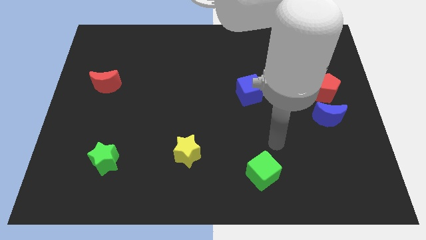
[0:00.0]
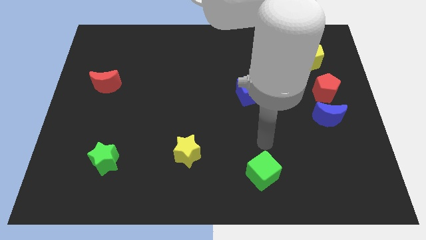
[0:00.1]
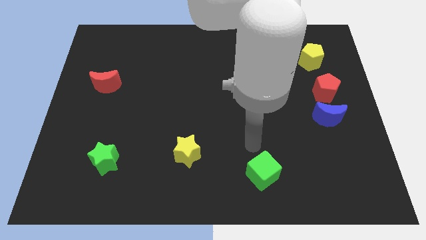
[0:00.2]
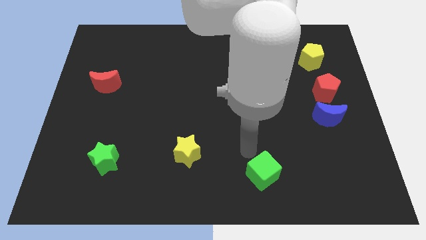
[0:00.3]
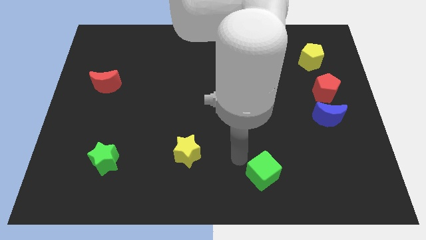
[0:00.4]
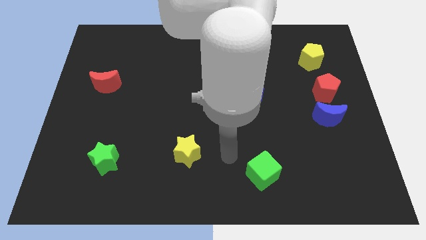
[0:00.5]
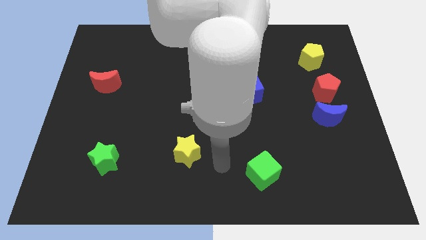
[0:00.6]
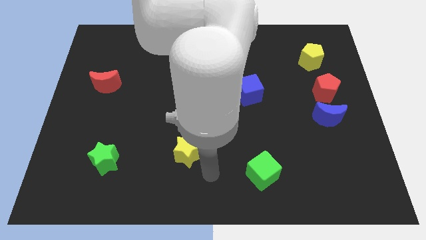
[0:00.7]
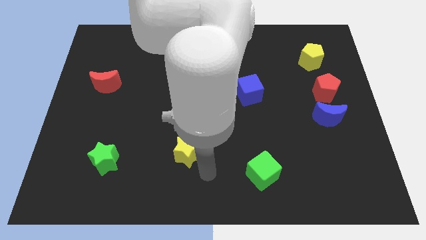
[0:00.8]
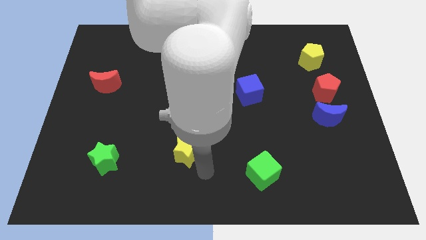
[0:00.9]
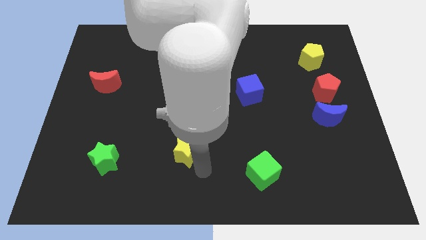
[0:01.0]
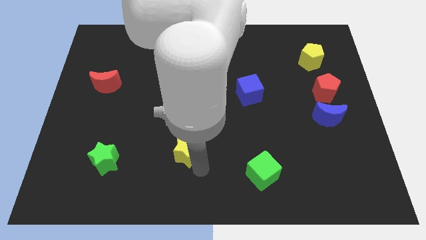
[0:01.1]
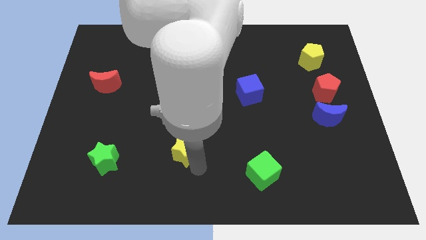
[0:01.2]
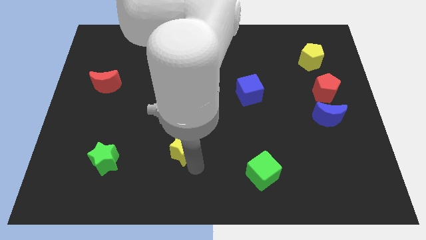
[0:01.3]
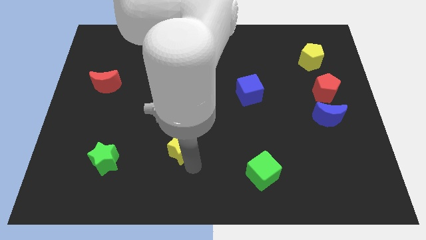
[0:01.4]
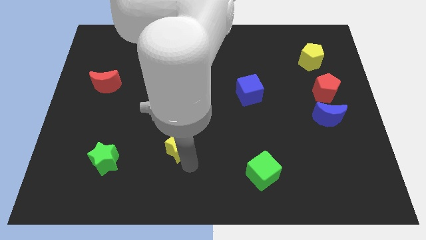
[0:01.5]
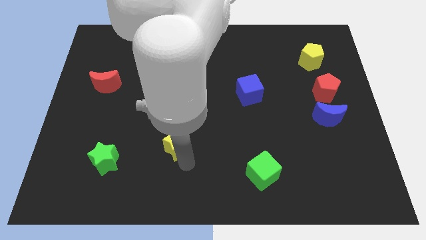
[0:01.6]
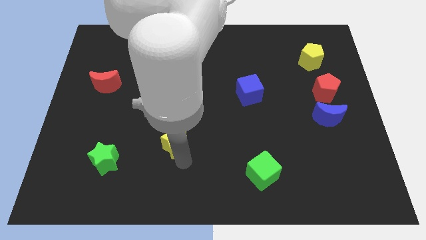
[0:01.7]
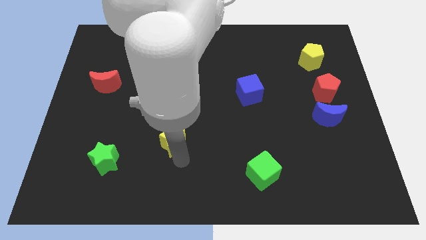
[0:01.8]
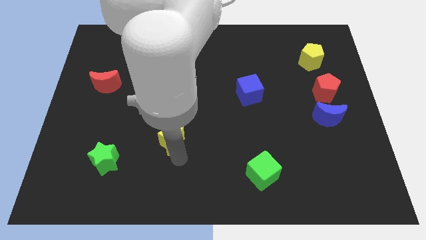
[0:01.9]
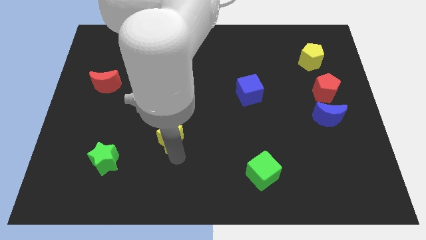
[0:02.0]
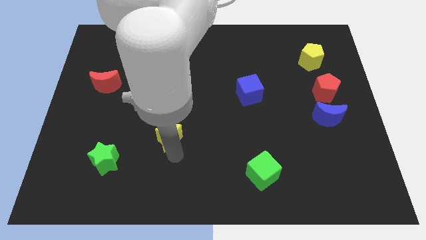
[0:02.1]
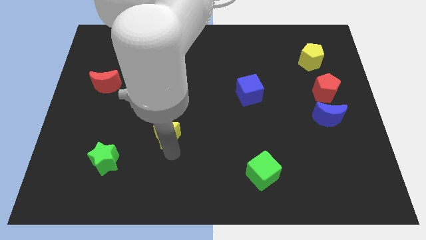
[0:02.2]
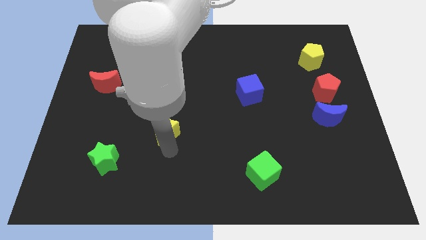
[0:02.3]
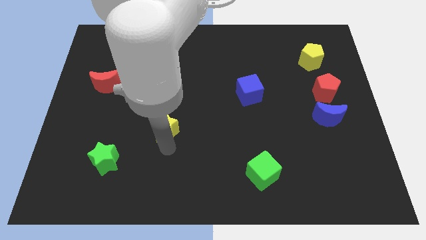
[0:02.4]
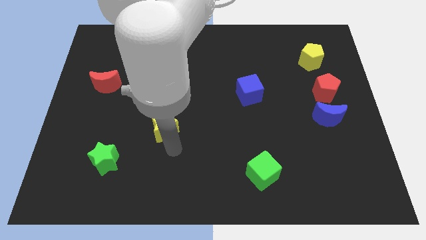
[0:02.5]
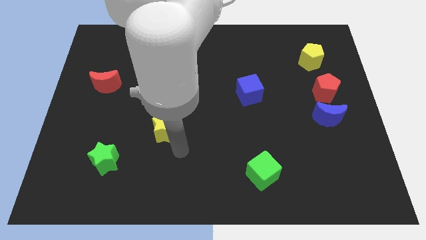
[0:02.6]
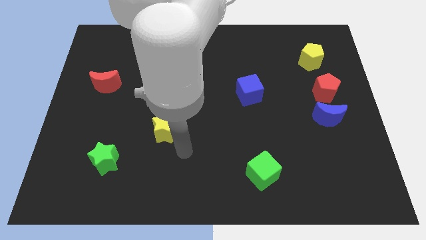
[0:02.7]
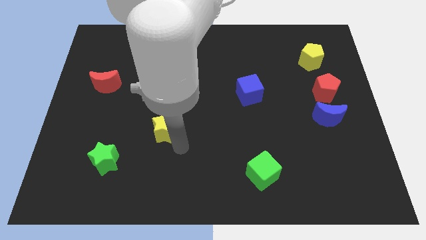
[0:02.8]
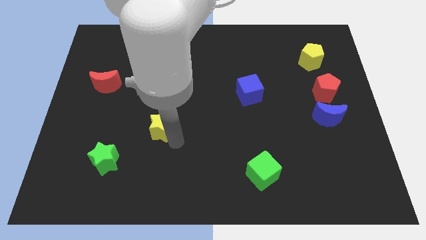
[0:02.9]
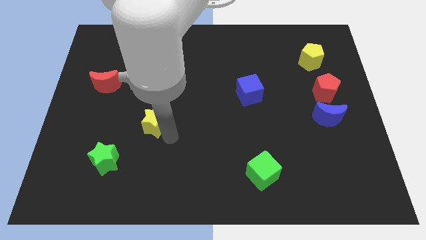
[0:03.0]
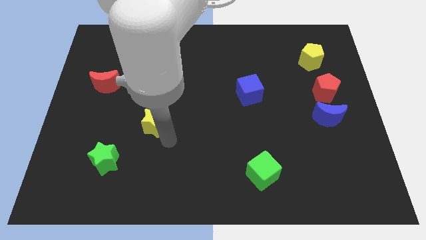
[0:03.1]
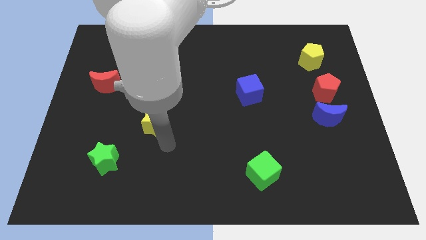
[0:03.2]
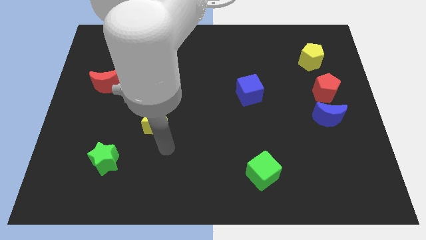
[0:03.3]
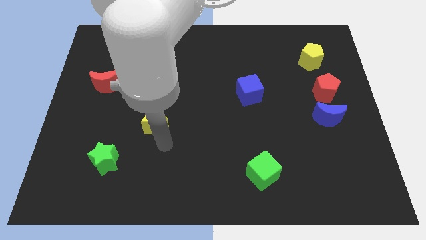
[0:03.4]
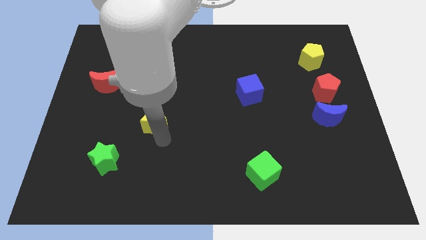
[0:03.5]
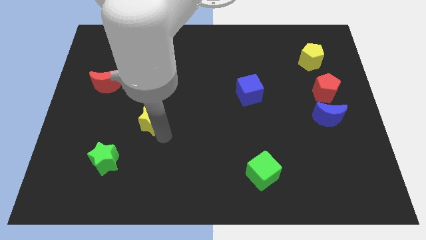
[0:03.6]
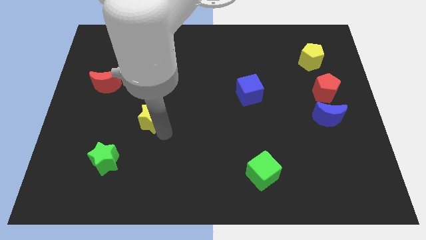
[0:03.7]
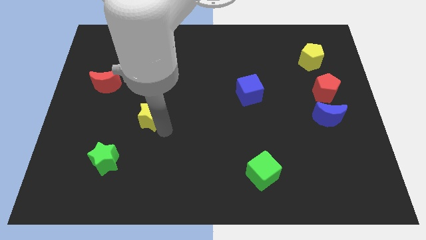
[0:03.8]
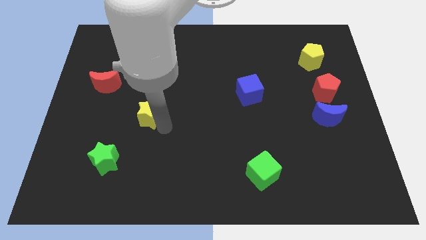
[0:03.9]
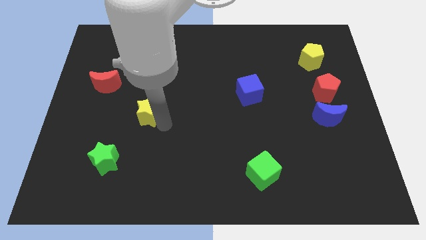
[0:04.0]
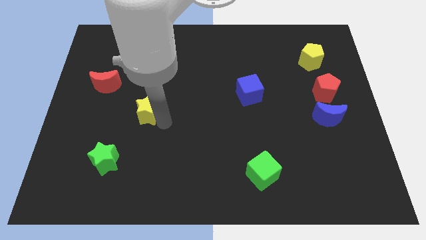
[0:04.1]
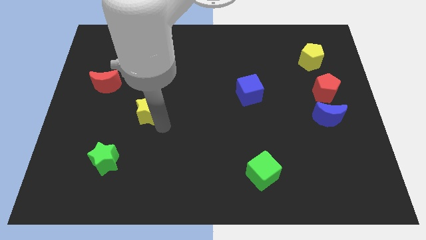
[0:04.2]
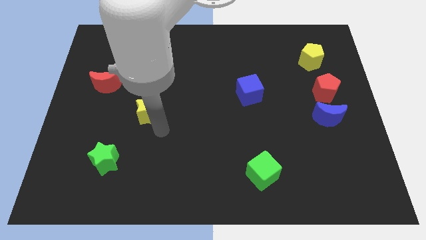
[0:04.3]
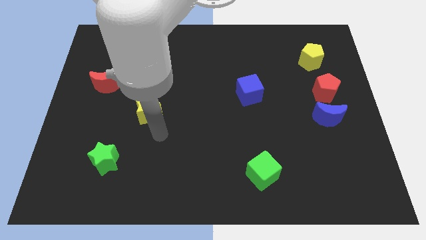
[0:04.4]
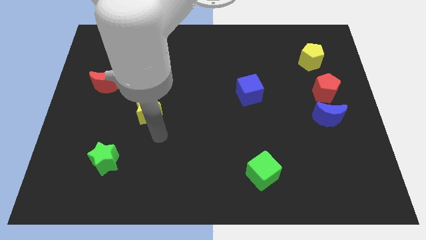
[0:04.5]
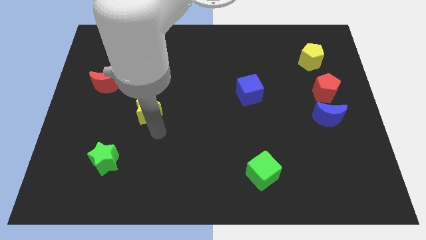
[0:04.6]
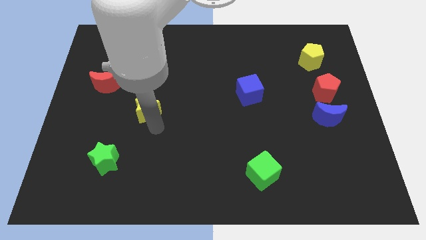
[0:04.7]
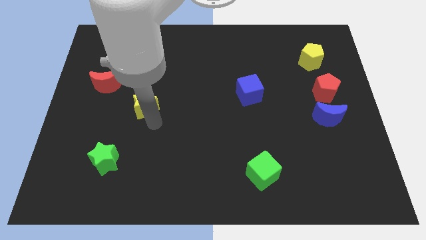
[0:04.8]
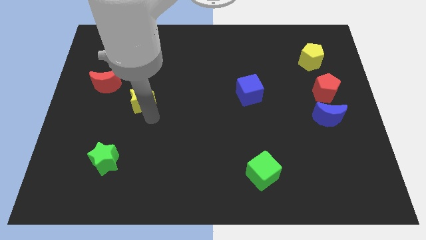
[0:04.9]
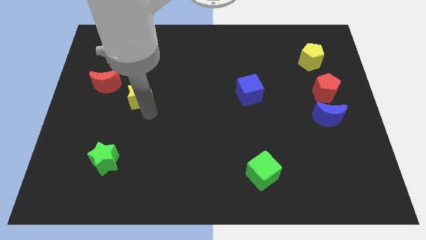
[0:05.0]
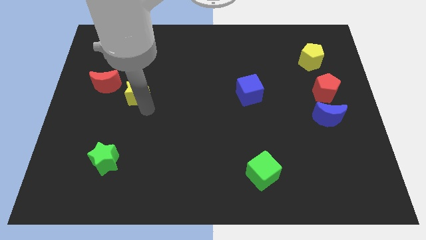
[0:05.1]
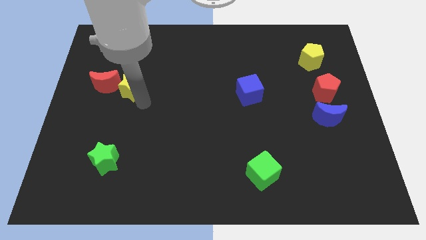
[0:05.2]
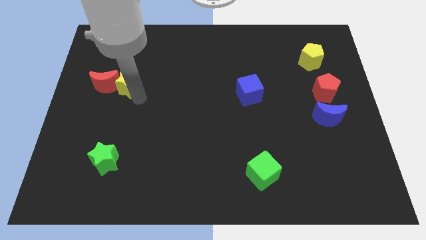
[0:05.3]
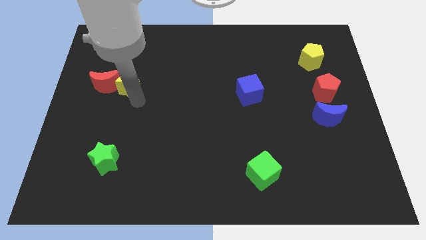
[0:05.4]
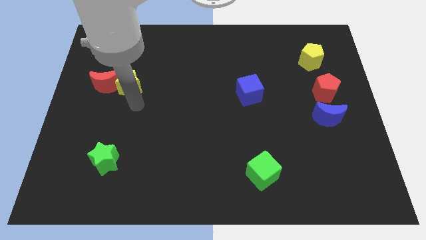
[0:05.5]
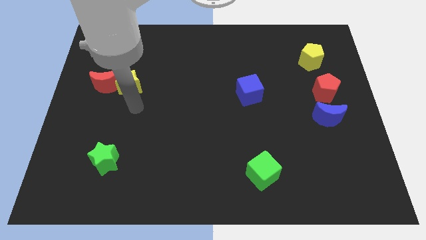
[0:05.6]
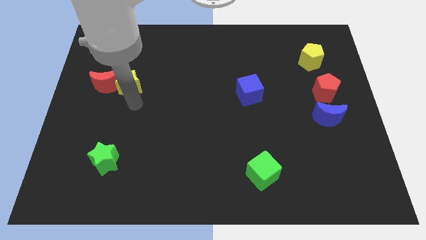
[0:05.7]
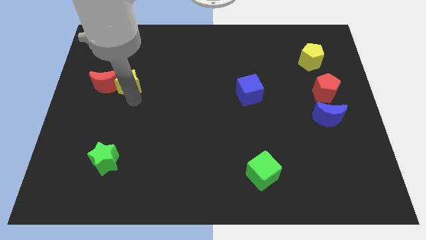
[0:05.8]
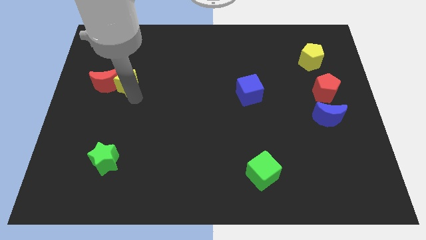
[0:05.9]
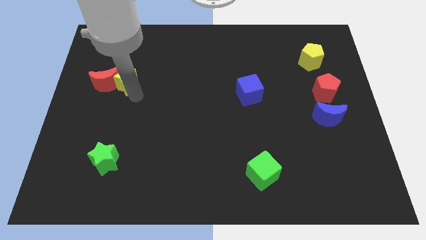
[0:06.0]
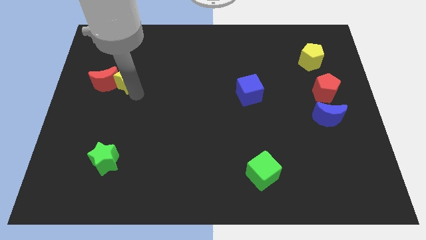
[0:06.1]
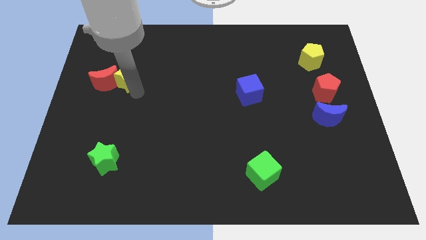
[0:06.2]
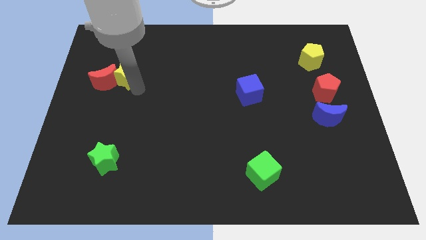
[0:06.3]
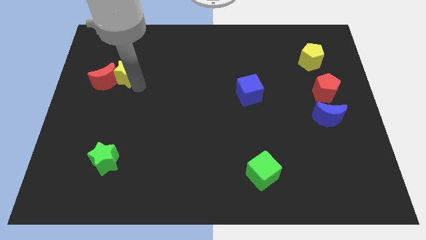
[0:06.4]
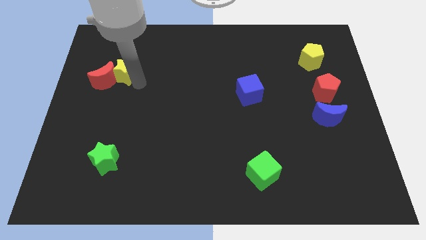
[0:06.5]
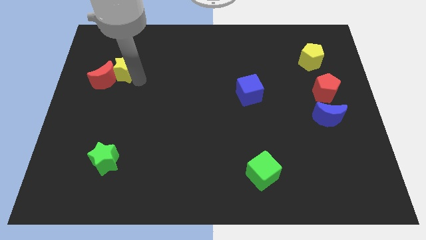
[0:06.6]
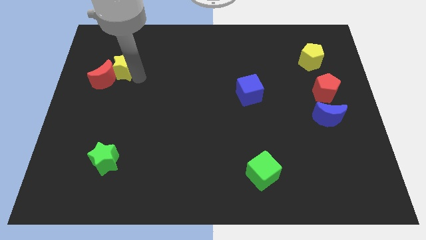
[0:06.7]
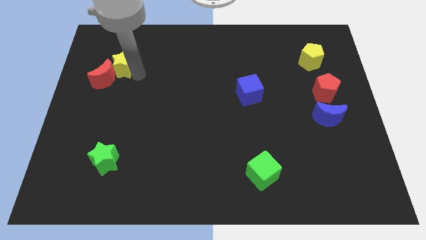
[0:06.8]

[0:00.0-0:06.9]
put the yellow star to the top side of the red moon
